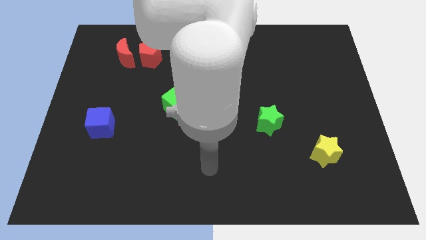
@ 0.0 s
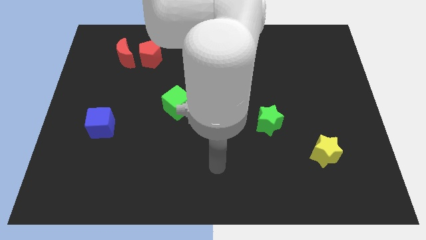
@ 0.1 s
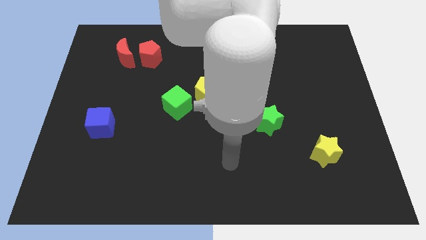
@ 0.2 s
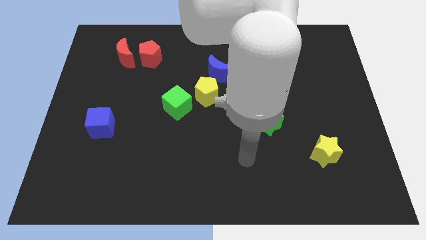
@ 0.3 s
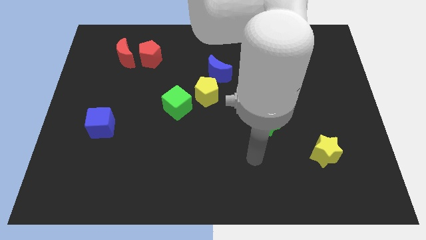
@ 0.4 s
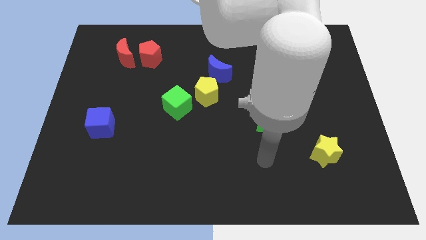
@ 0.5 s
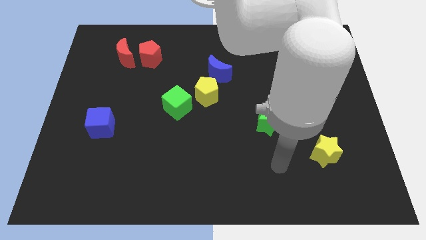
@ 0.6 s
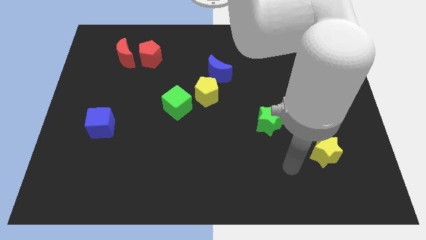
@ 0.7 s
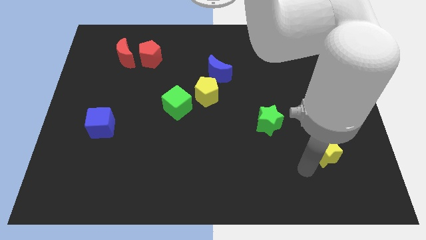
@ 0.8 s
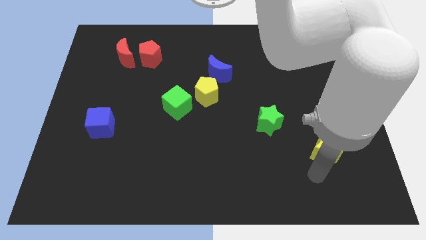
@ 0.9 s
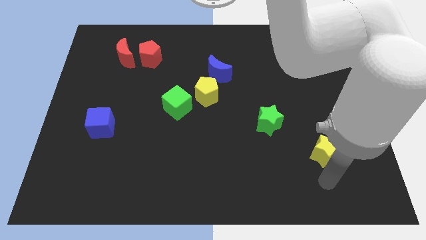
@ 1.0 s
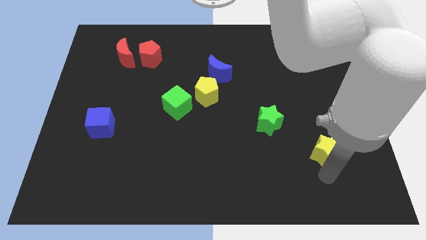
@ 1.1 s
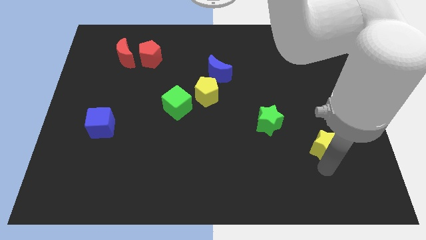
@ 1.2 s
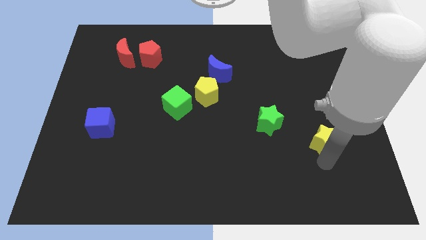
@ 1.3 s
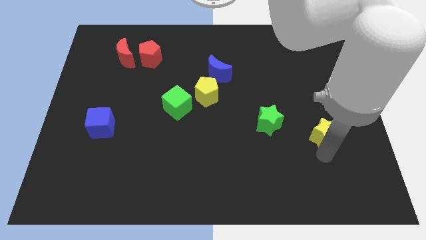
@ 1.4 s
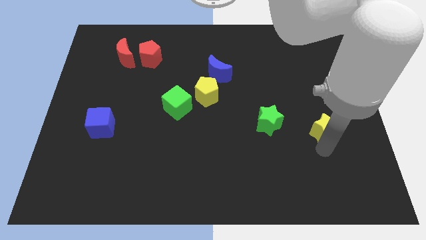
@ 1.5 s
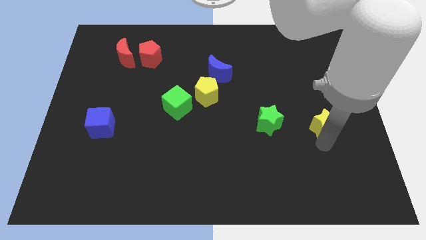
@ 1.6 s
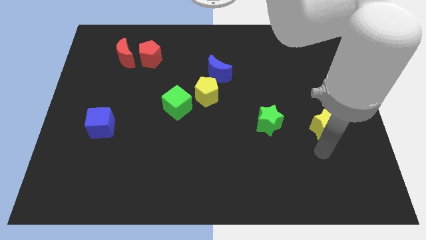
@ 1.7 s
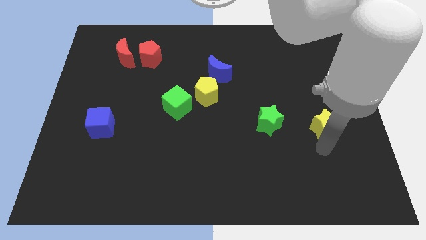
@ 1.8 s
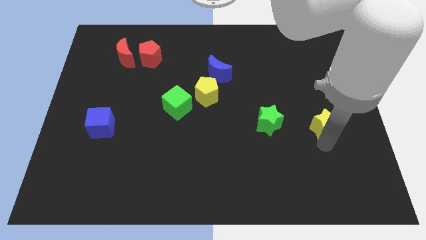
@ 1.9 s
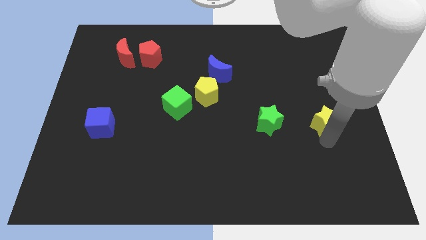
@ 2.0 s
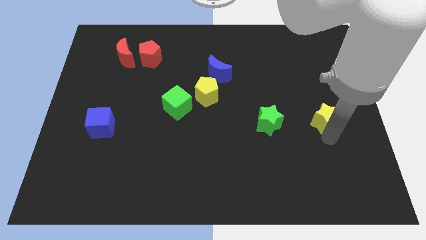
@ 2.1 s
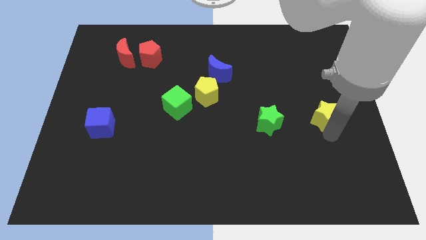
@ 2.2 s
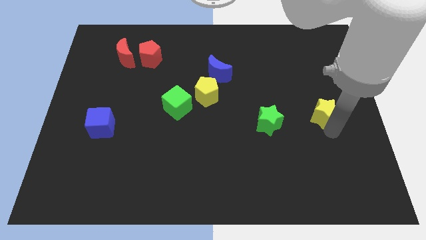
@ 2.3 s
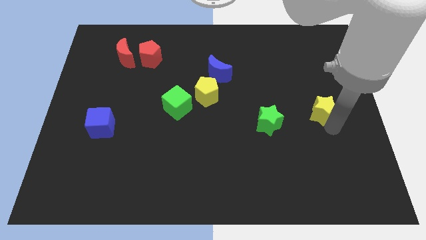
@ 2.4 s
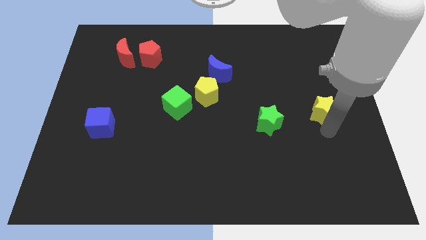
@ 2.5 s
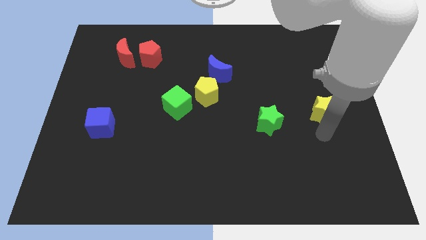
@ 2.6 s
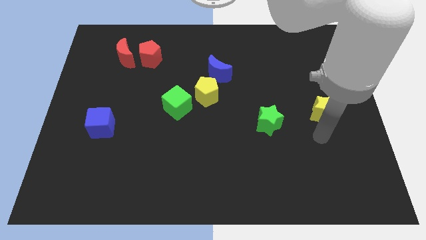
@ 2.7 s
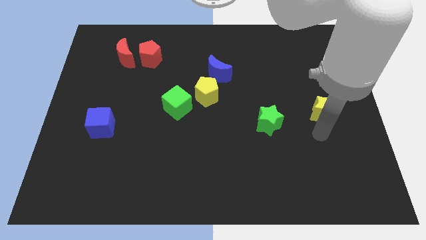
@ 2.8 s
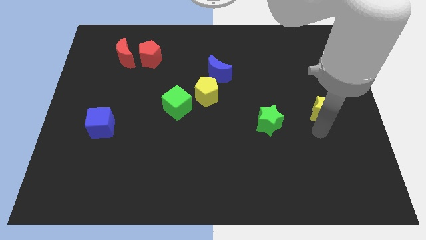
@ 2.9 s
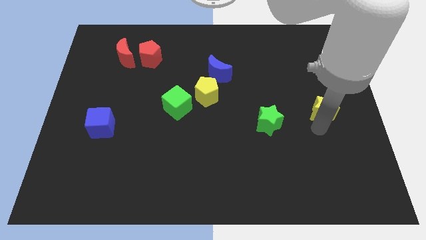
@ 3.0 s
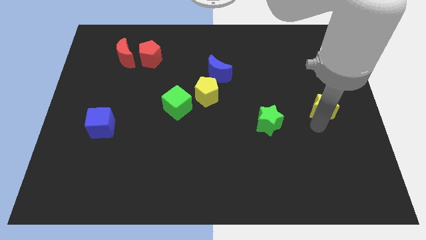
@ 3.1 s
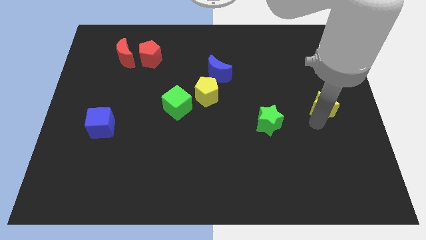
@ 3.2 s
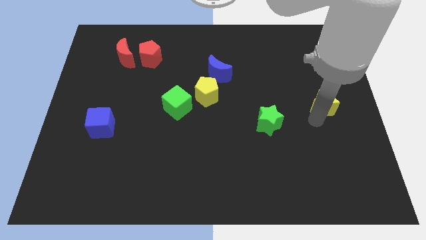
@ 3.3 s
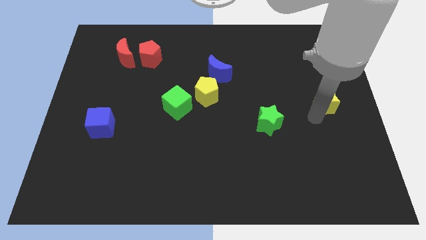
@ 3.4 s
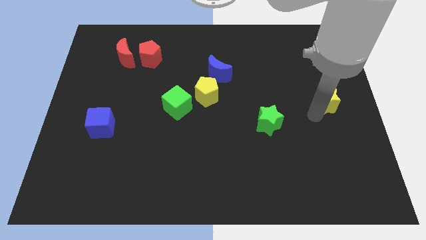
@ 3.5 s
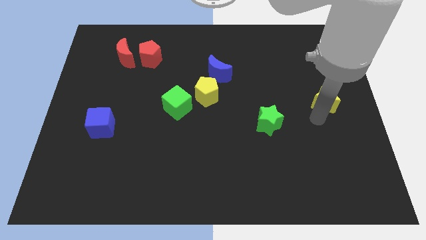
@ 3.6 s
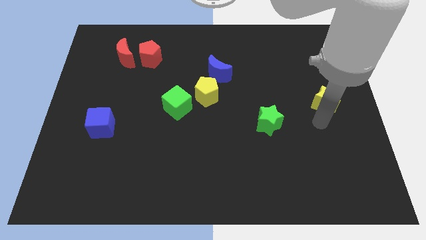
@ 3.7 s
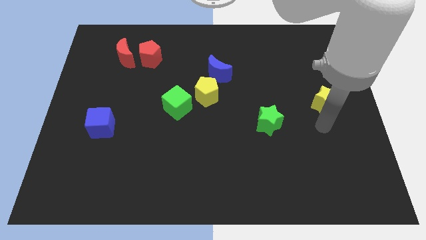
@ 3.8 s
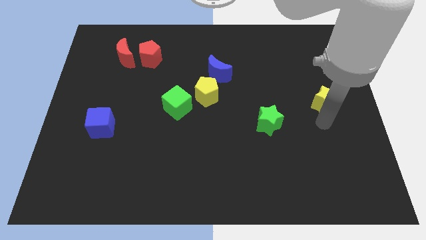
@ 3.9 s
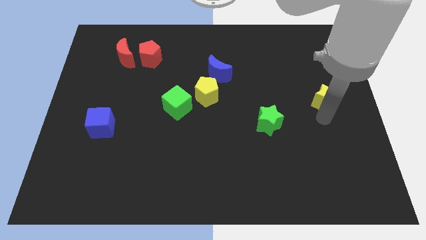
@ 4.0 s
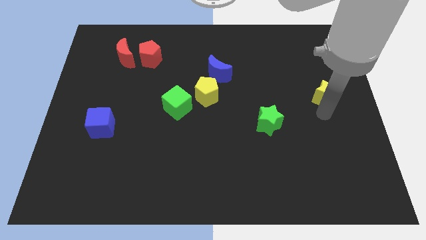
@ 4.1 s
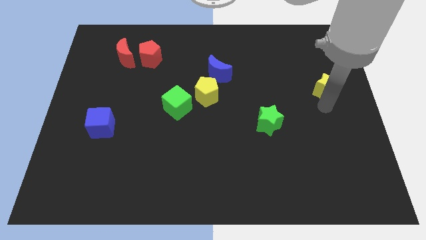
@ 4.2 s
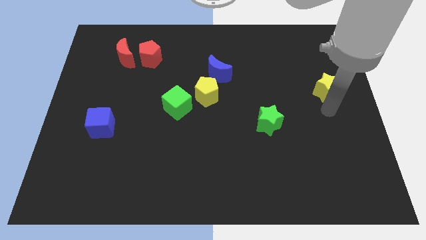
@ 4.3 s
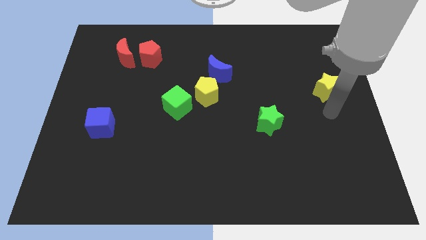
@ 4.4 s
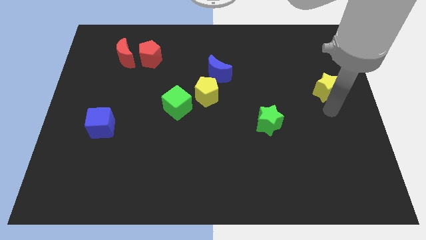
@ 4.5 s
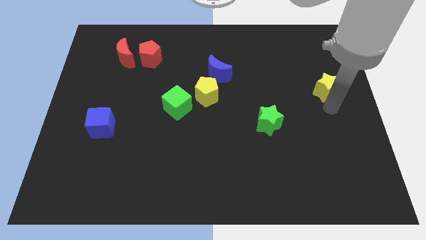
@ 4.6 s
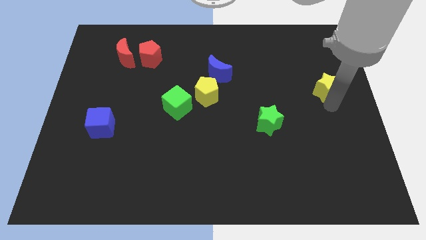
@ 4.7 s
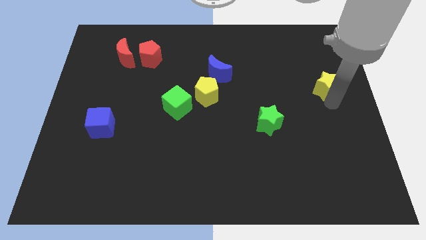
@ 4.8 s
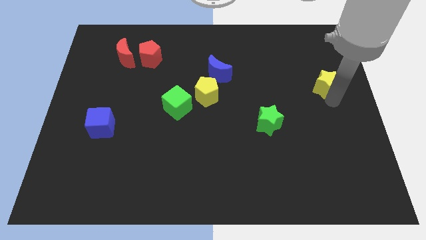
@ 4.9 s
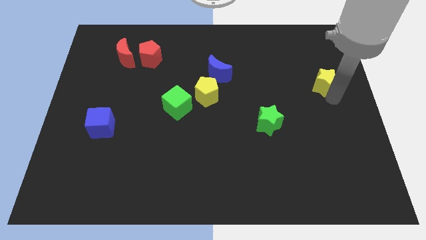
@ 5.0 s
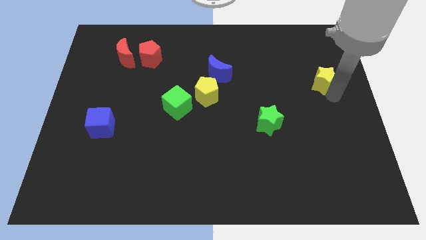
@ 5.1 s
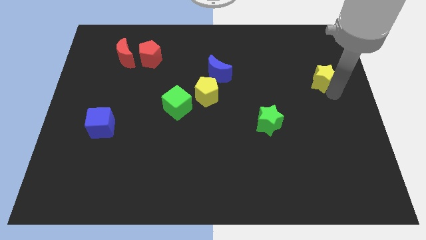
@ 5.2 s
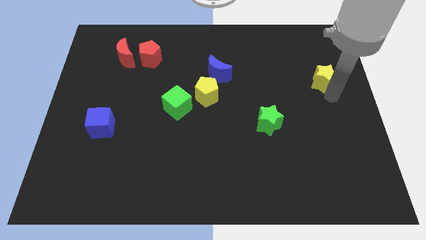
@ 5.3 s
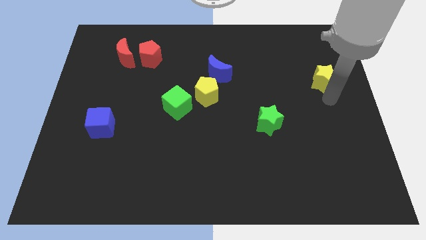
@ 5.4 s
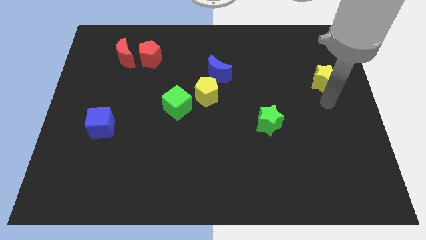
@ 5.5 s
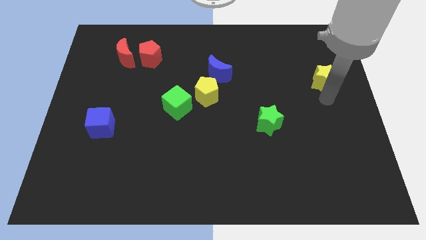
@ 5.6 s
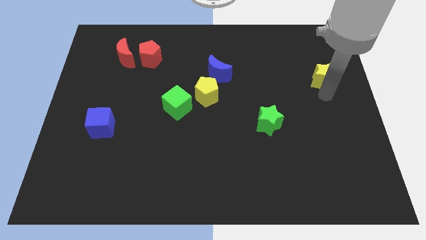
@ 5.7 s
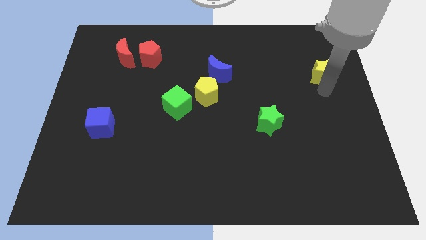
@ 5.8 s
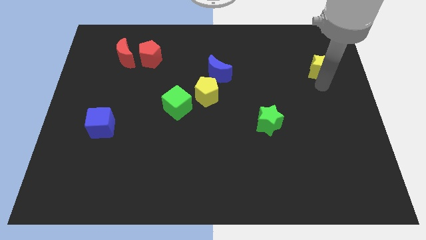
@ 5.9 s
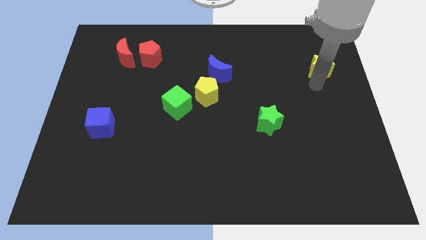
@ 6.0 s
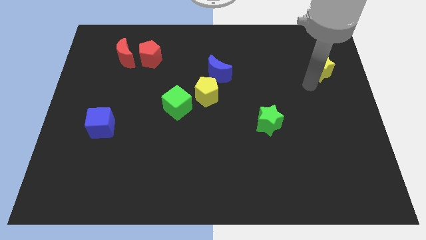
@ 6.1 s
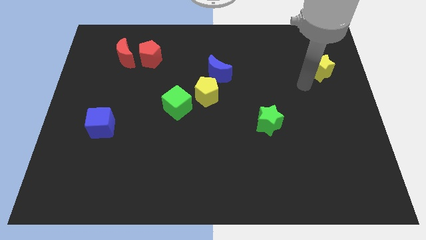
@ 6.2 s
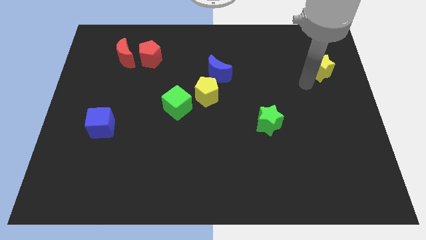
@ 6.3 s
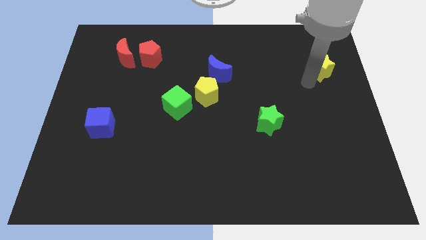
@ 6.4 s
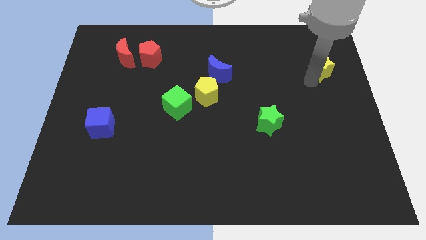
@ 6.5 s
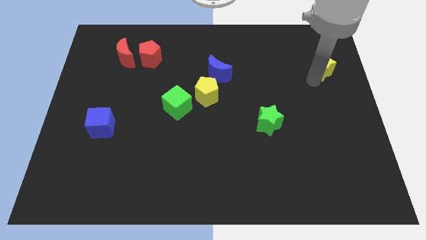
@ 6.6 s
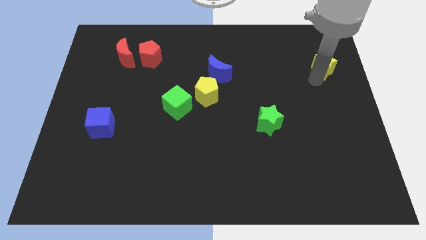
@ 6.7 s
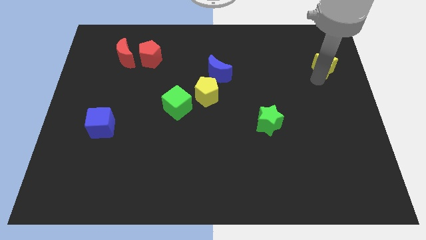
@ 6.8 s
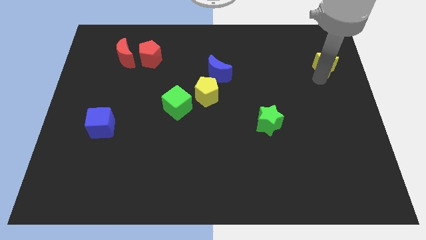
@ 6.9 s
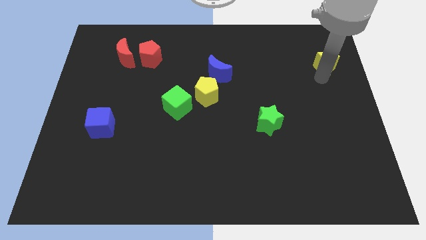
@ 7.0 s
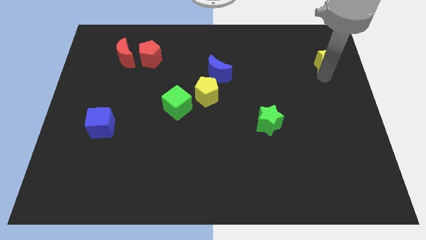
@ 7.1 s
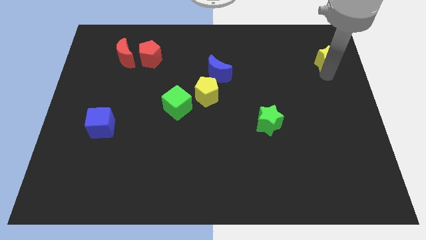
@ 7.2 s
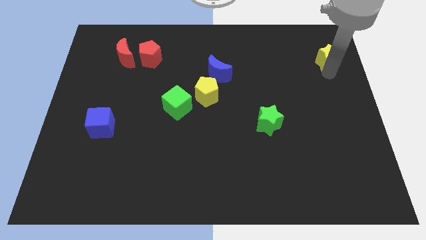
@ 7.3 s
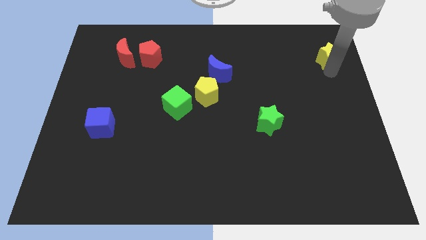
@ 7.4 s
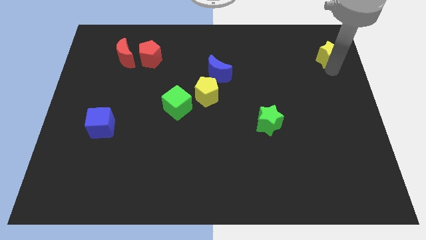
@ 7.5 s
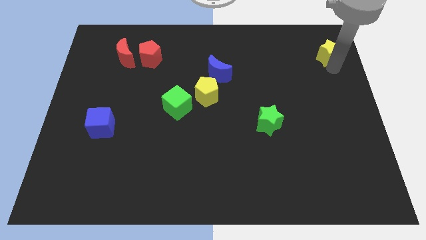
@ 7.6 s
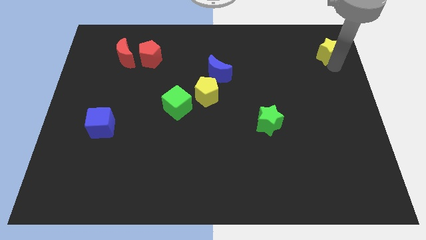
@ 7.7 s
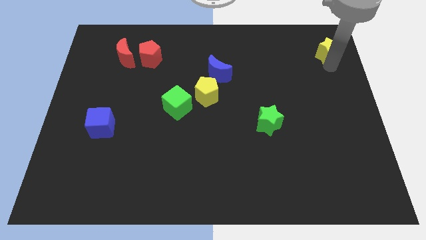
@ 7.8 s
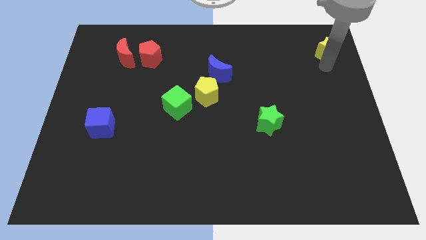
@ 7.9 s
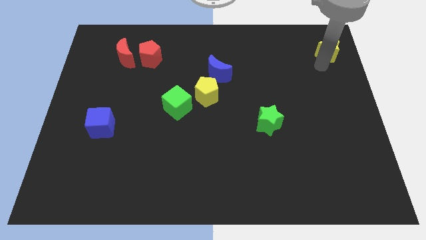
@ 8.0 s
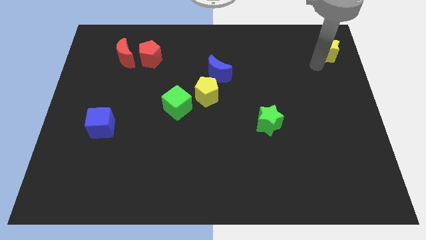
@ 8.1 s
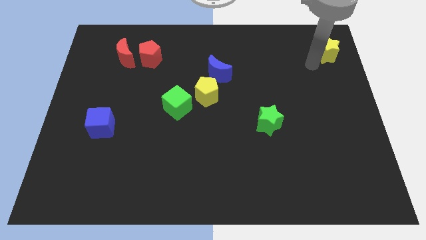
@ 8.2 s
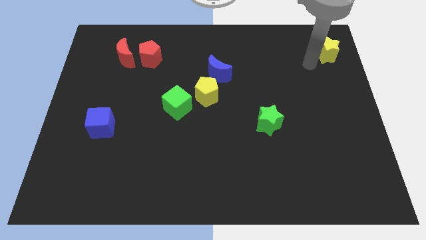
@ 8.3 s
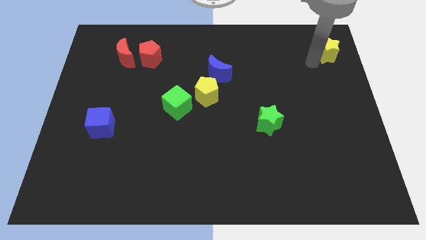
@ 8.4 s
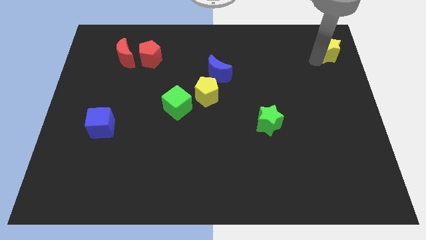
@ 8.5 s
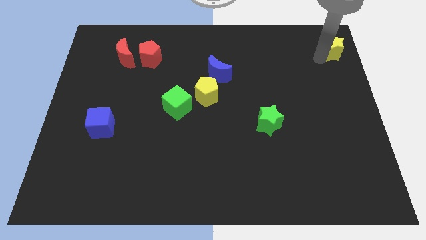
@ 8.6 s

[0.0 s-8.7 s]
push the yellow star to the top right corner
